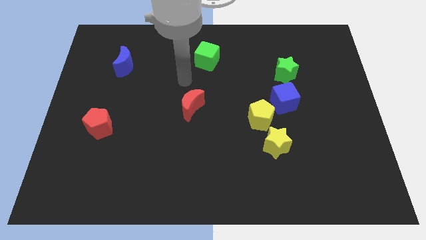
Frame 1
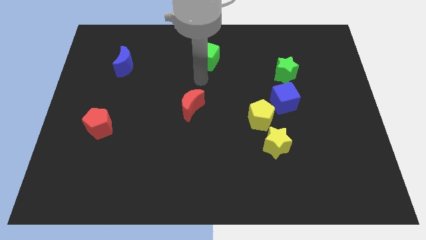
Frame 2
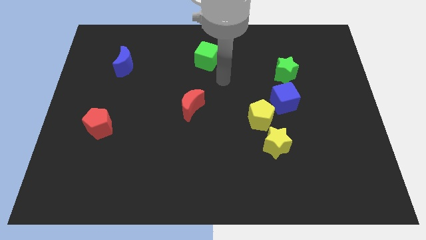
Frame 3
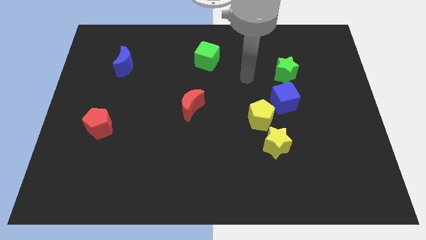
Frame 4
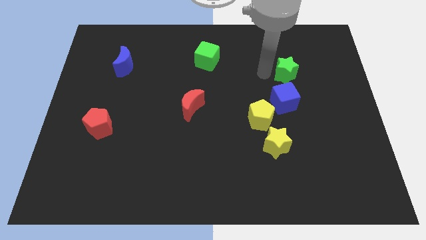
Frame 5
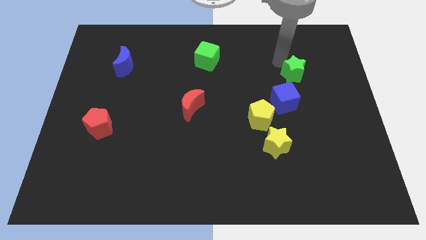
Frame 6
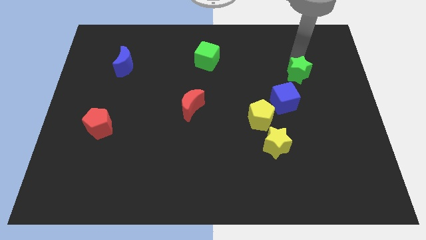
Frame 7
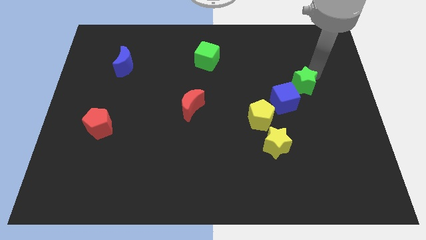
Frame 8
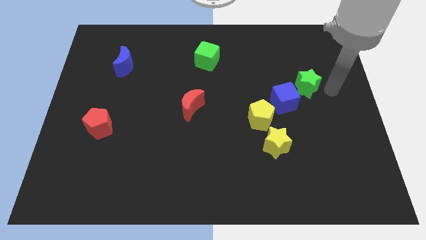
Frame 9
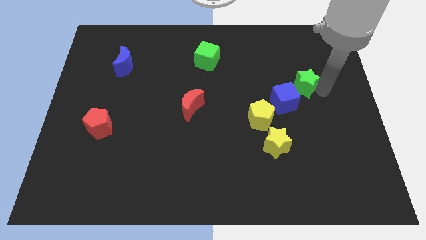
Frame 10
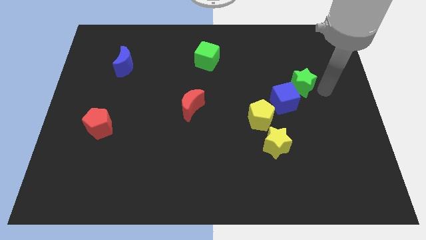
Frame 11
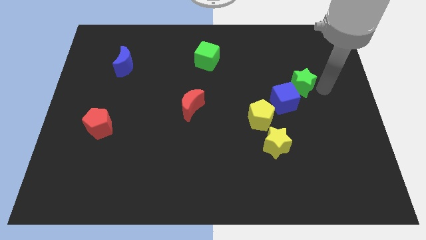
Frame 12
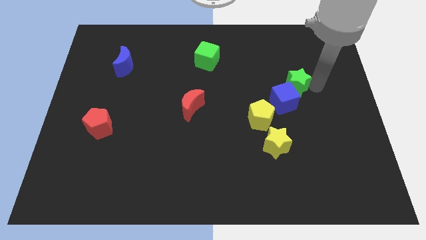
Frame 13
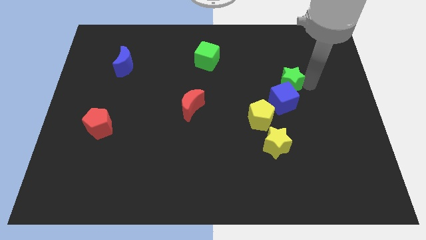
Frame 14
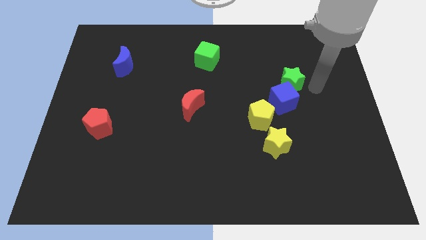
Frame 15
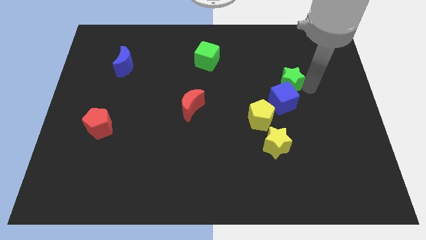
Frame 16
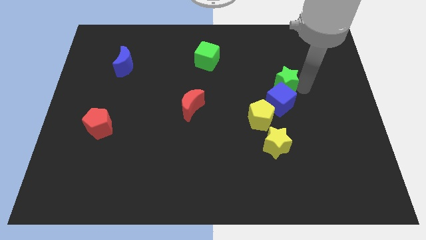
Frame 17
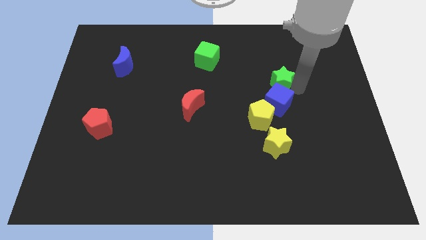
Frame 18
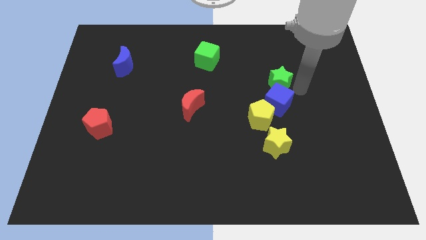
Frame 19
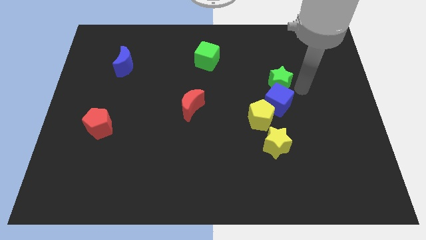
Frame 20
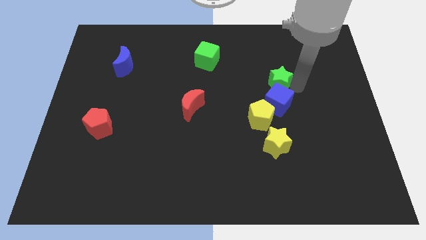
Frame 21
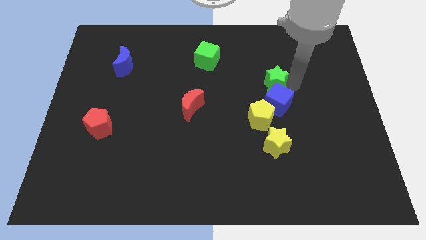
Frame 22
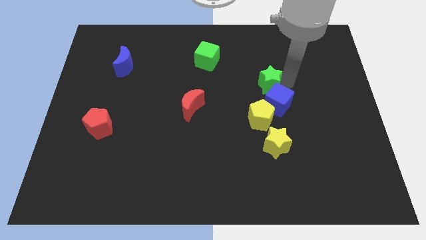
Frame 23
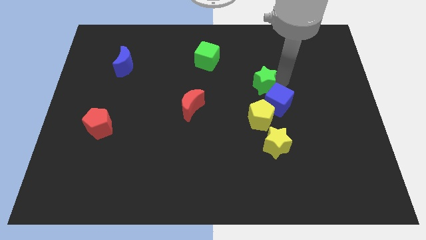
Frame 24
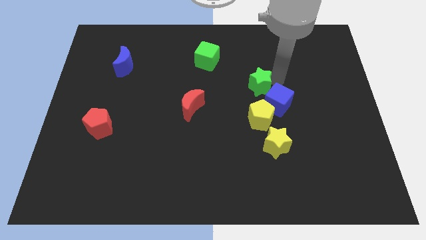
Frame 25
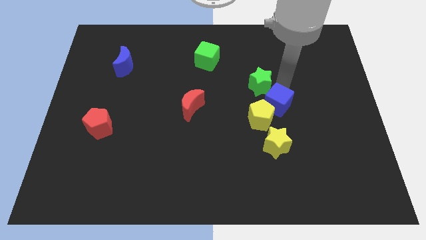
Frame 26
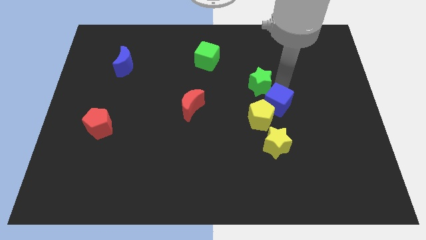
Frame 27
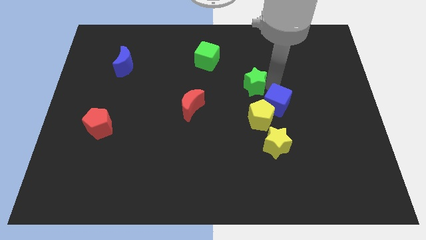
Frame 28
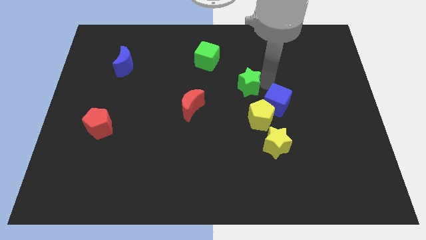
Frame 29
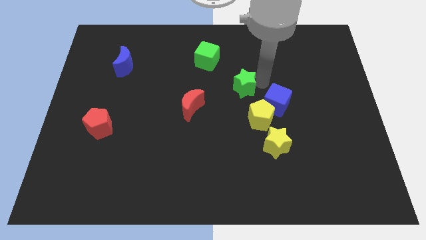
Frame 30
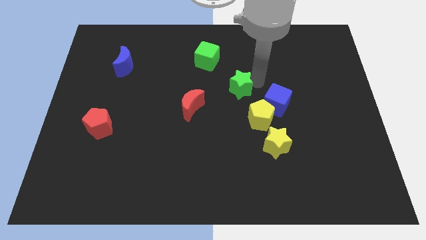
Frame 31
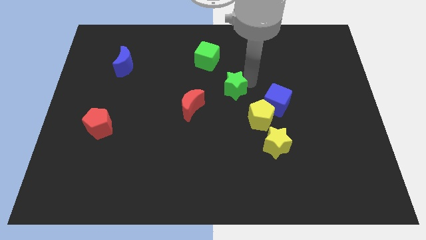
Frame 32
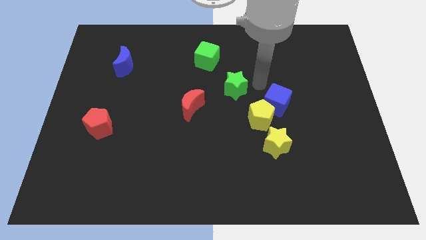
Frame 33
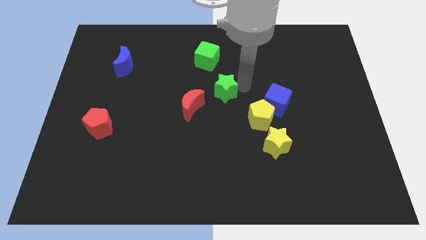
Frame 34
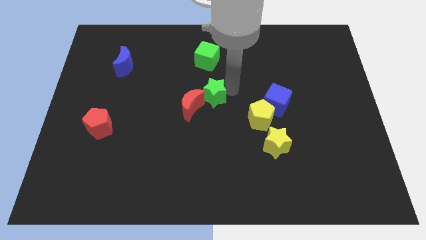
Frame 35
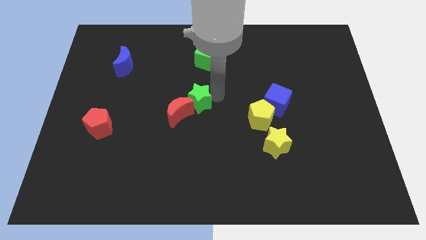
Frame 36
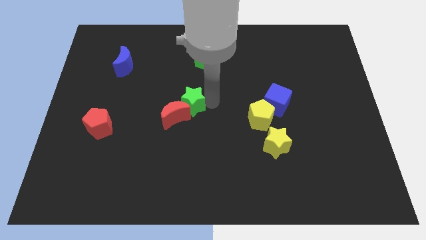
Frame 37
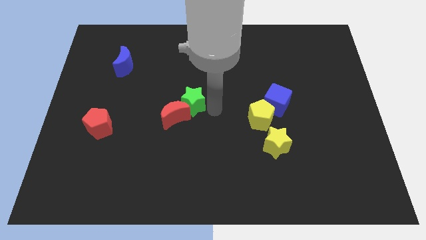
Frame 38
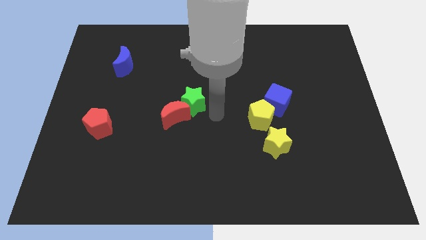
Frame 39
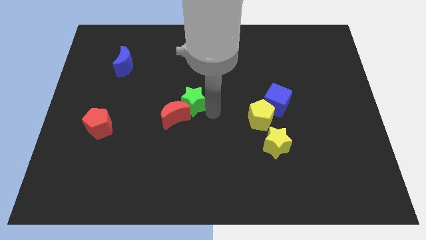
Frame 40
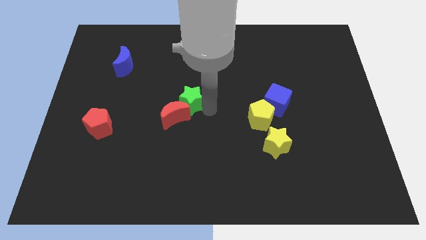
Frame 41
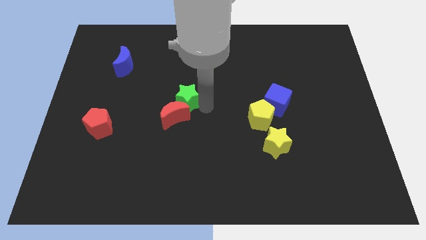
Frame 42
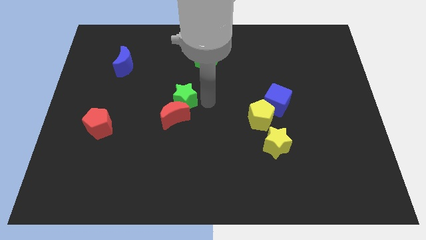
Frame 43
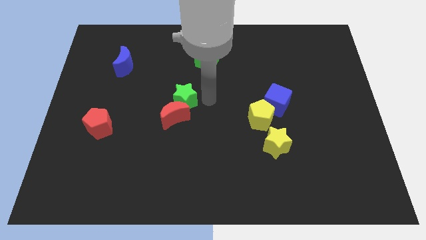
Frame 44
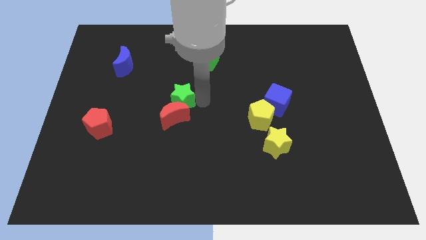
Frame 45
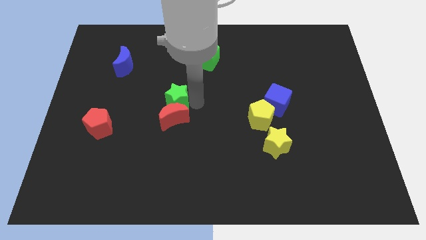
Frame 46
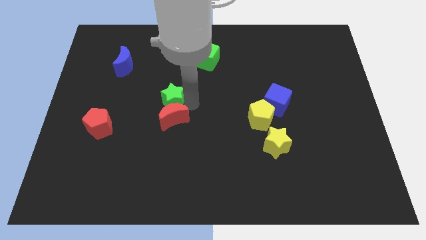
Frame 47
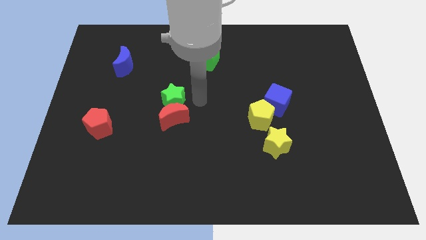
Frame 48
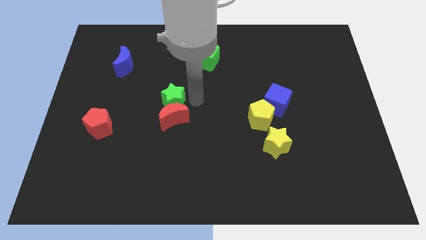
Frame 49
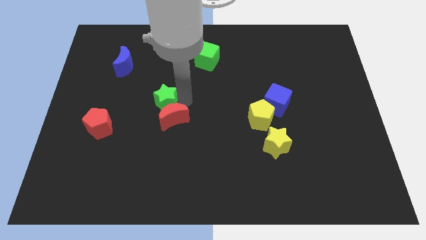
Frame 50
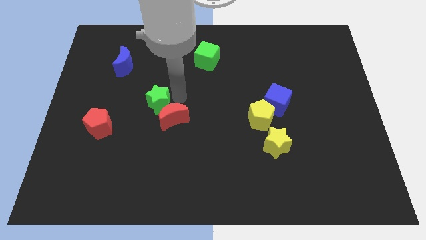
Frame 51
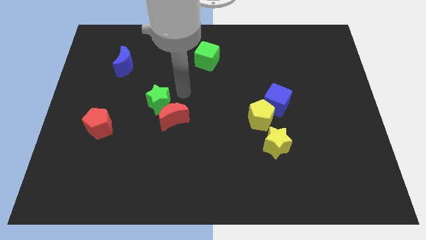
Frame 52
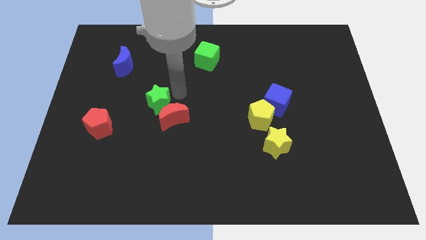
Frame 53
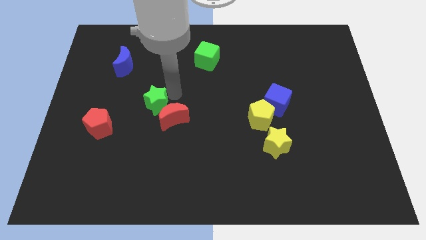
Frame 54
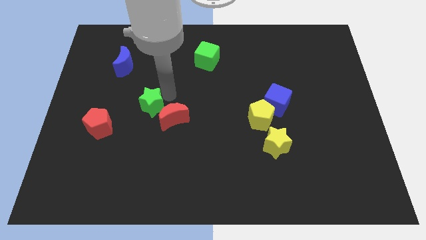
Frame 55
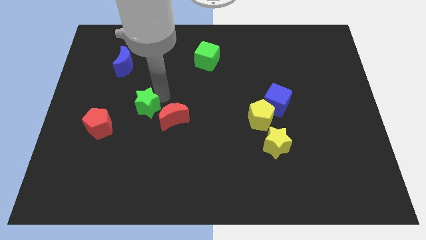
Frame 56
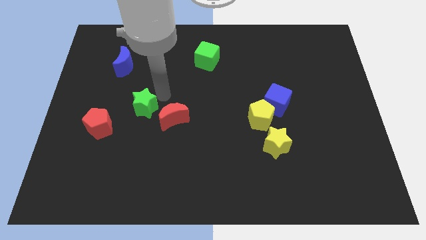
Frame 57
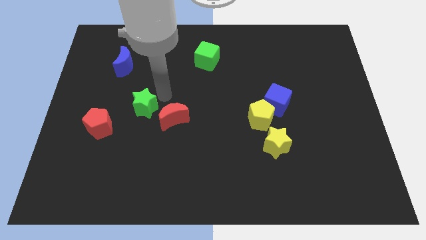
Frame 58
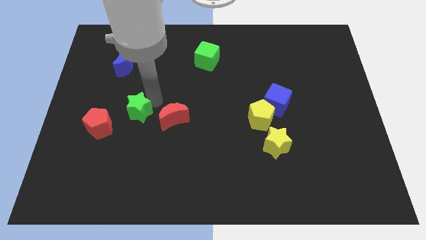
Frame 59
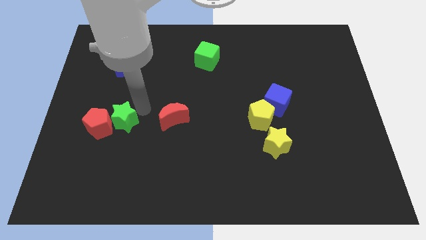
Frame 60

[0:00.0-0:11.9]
move the green star close to the red pentagon

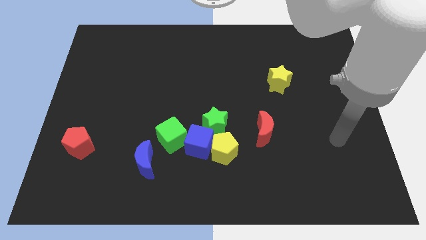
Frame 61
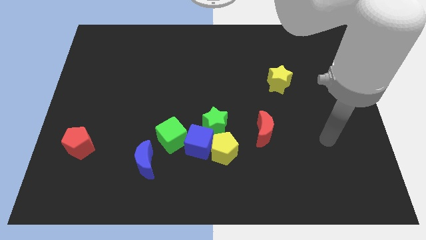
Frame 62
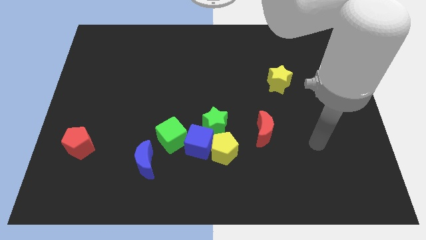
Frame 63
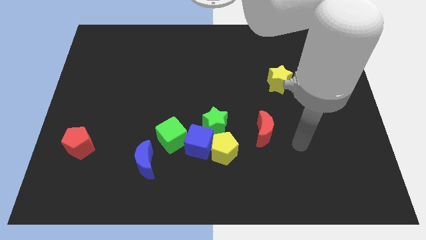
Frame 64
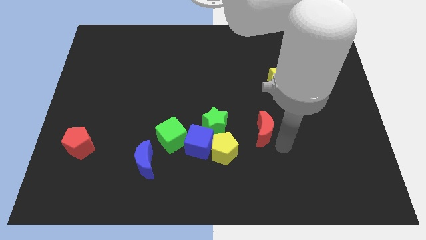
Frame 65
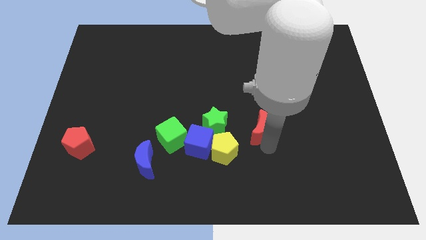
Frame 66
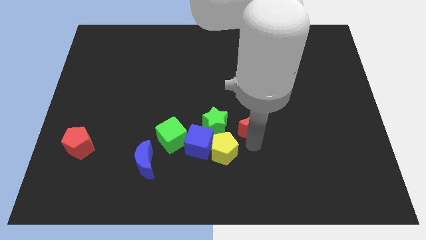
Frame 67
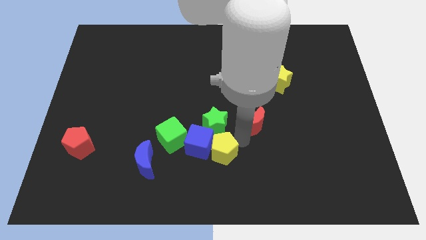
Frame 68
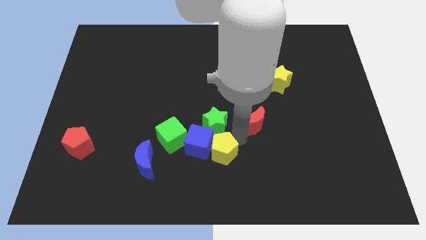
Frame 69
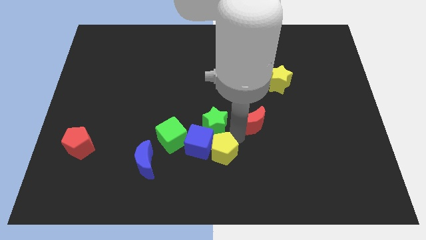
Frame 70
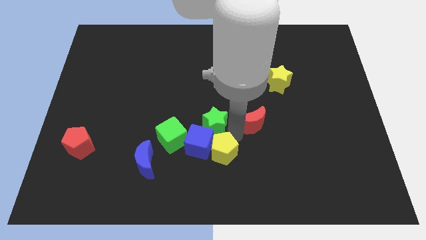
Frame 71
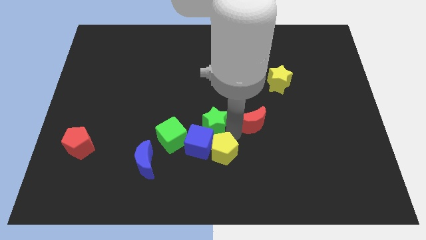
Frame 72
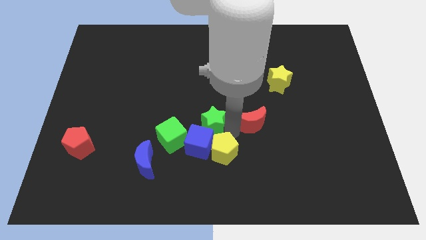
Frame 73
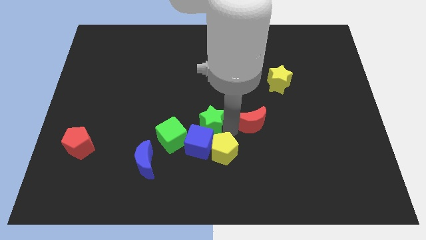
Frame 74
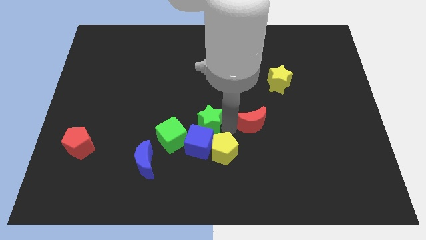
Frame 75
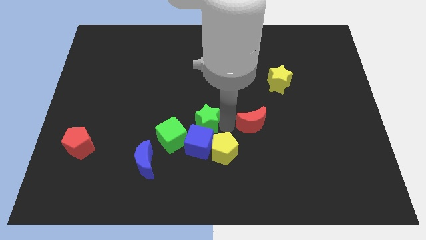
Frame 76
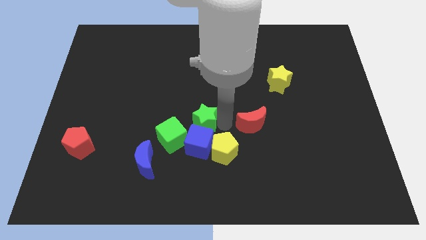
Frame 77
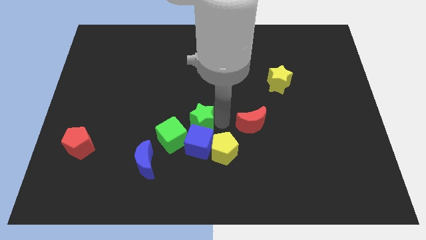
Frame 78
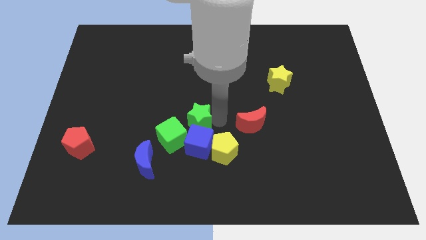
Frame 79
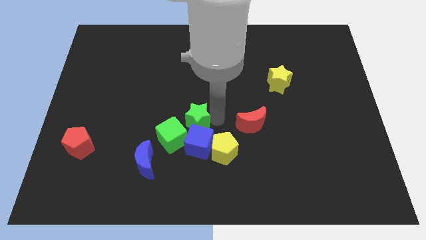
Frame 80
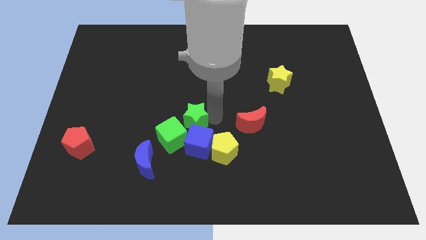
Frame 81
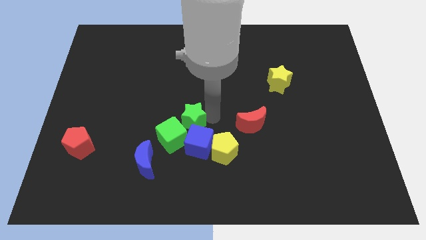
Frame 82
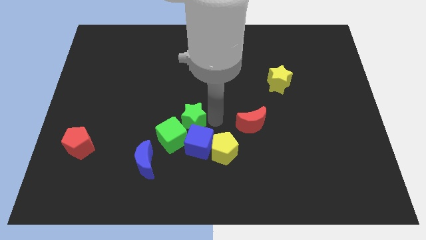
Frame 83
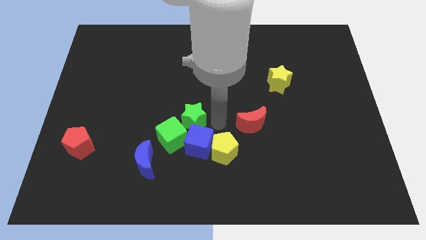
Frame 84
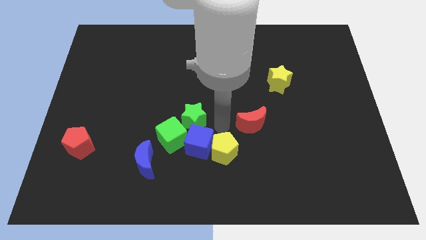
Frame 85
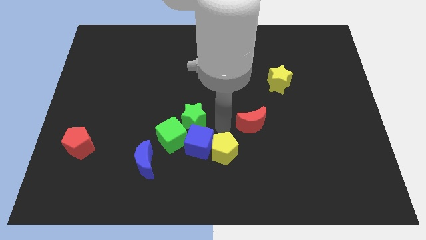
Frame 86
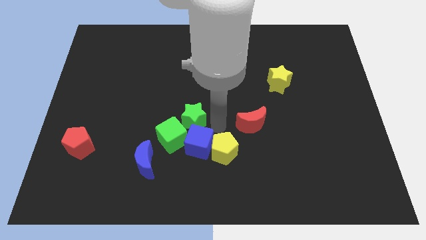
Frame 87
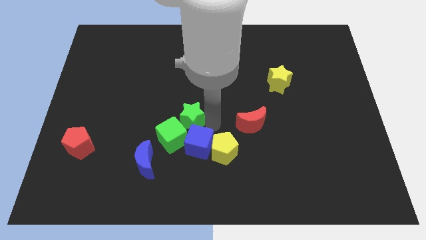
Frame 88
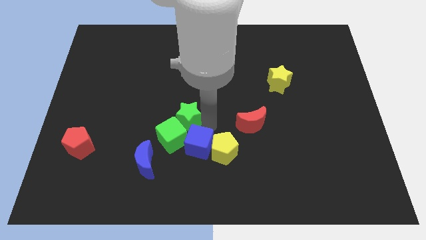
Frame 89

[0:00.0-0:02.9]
push the green star close to the green cube
